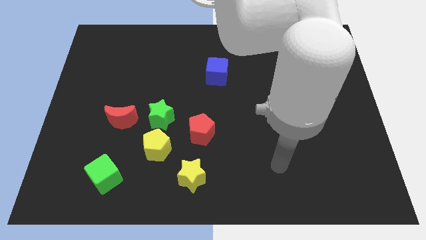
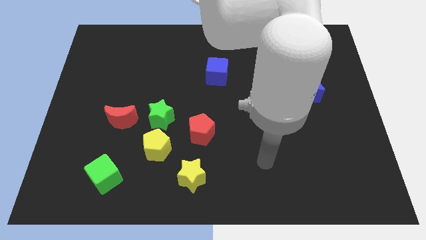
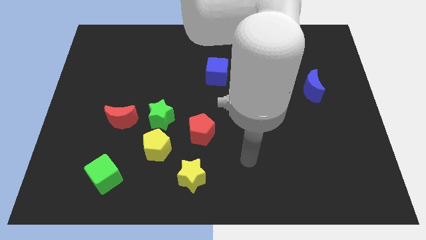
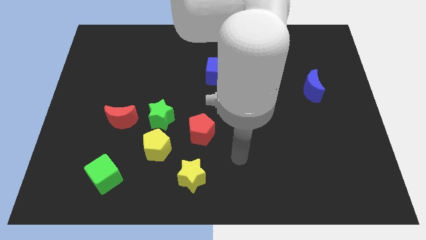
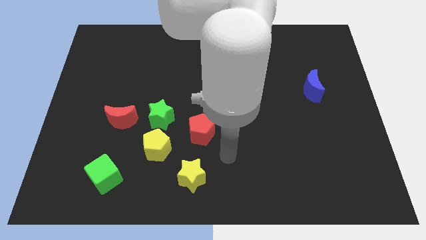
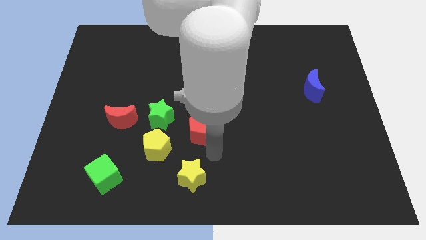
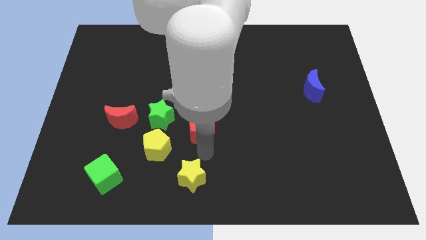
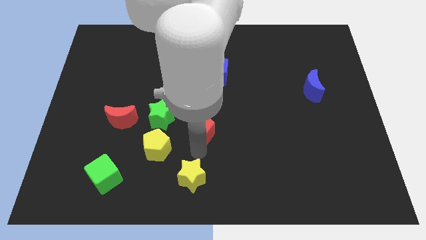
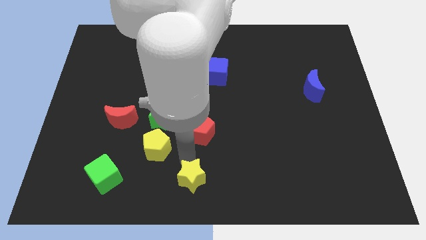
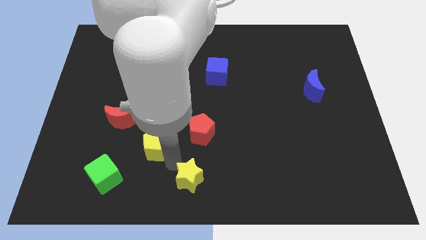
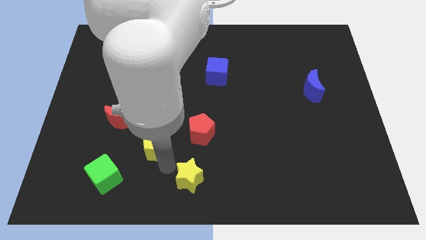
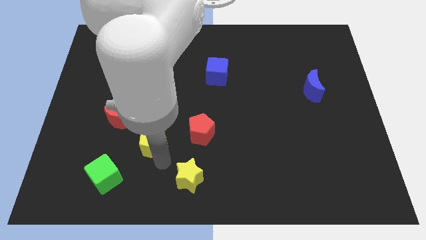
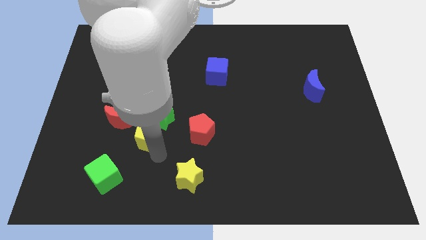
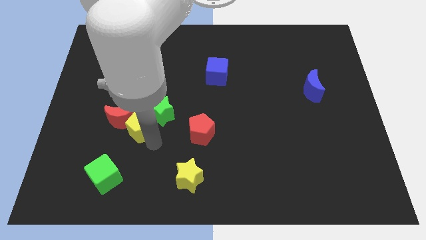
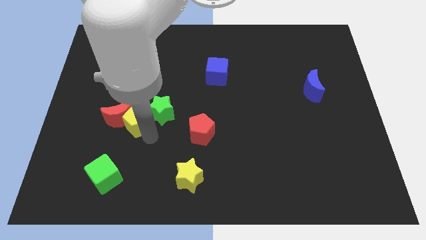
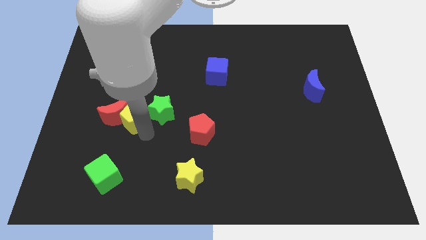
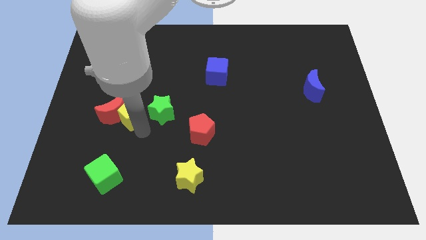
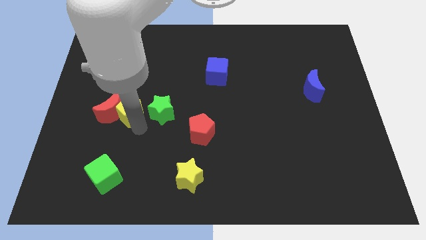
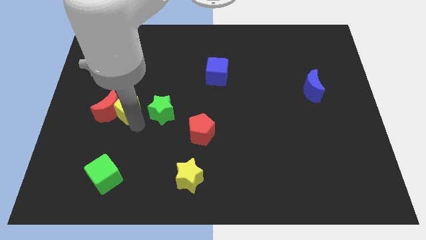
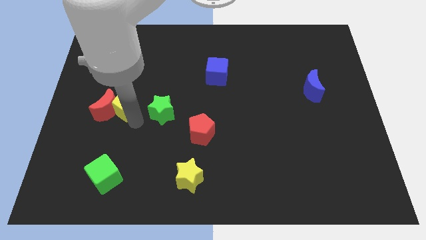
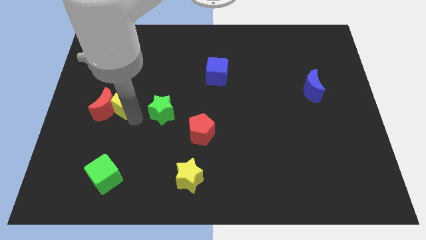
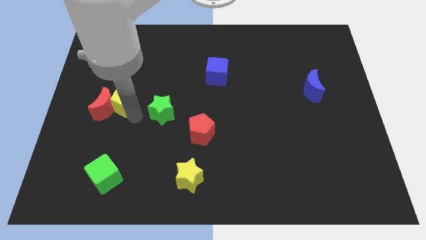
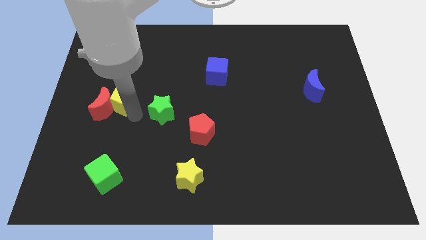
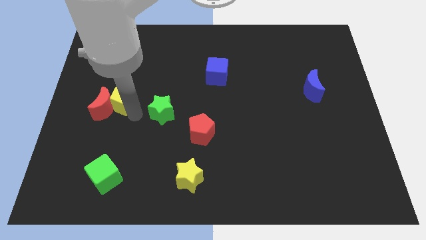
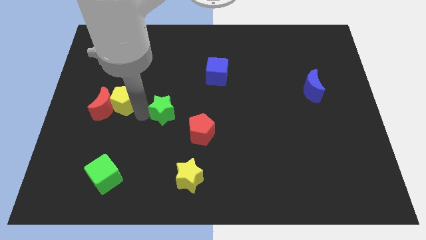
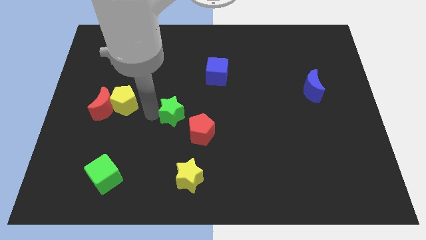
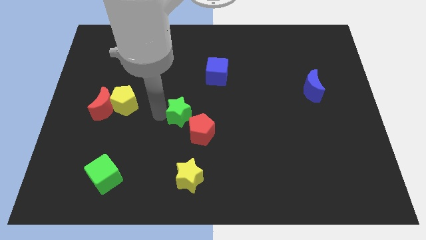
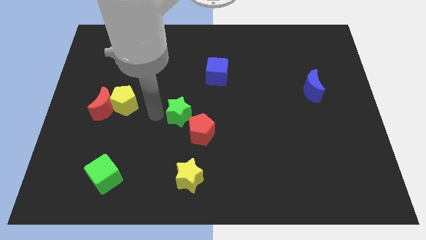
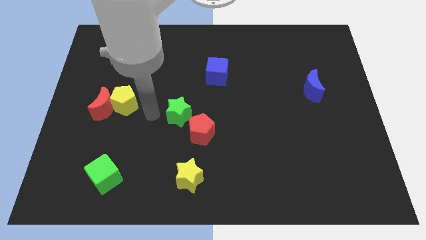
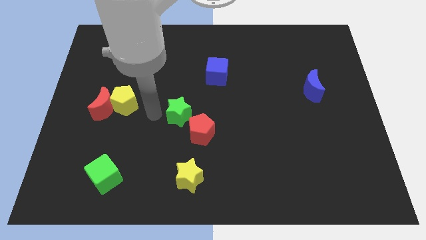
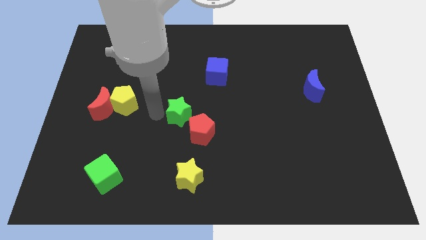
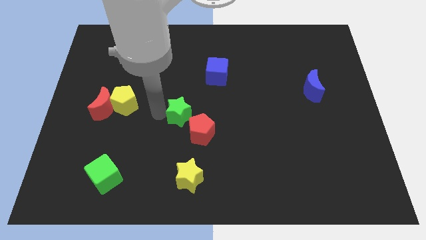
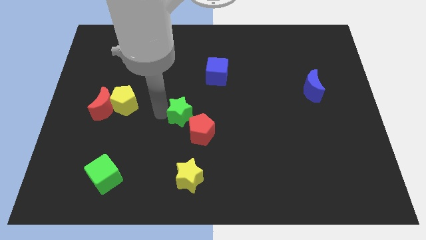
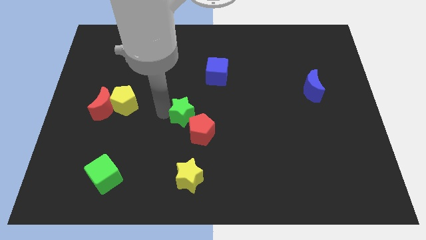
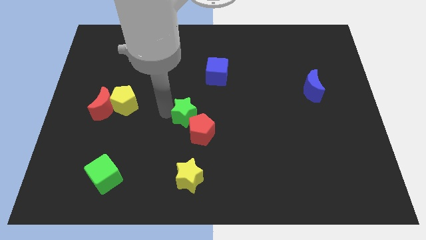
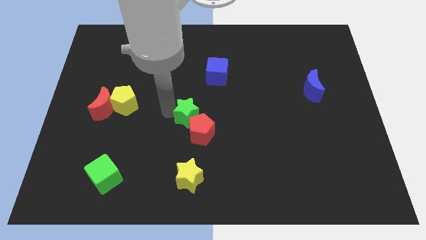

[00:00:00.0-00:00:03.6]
separate the green star from the group of blocks

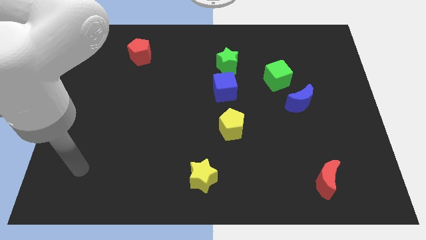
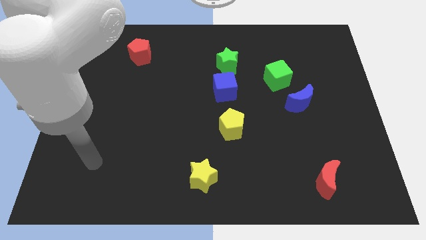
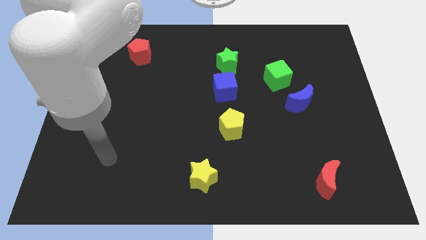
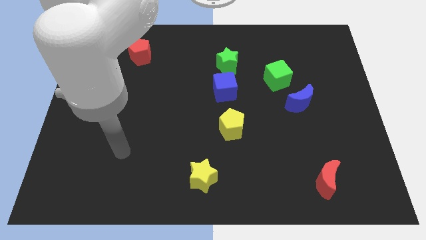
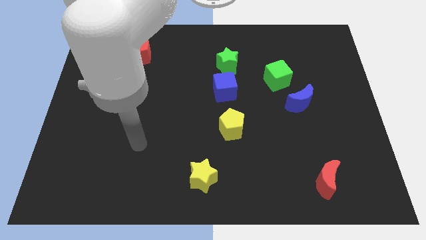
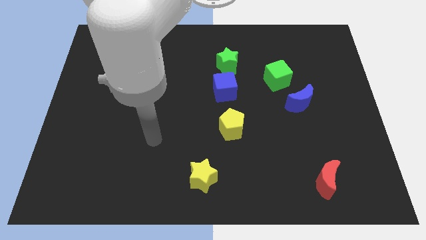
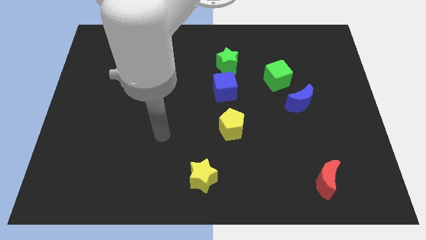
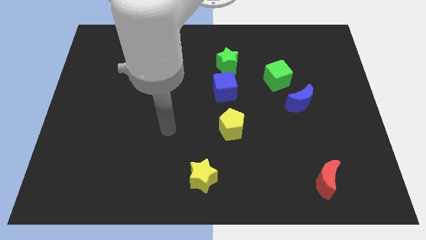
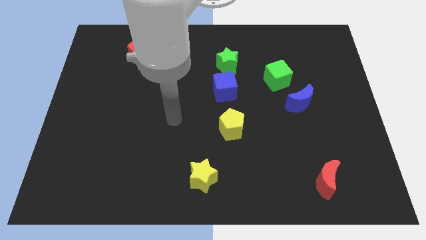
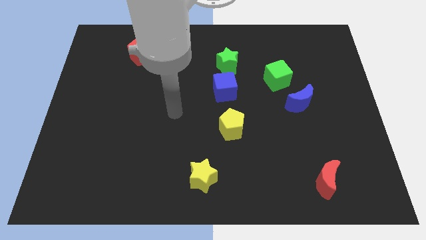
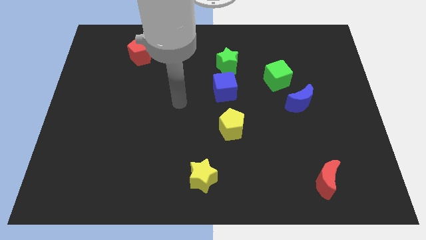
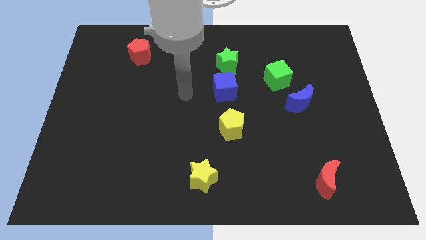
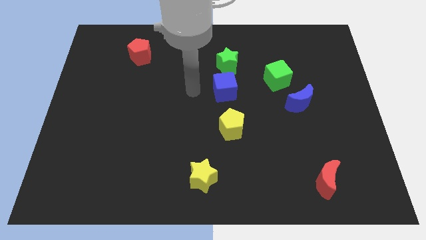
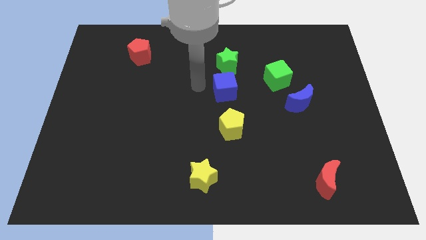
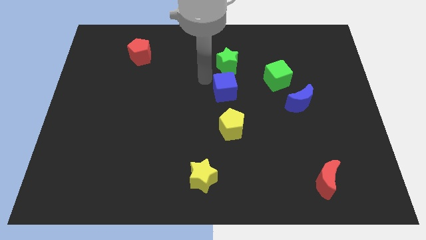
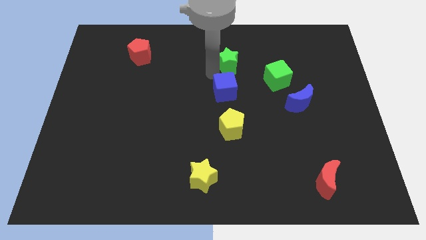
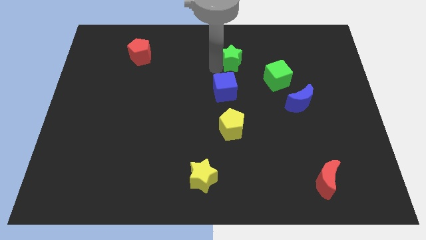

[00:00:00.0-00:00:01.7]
separate the blue cube from the green star

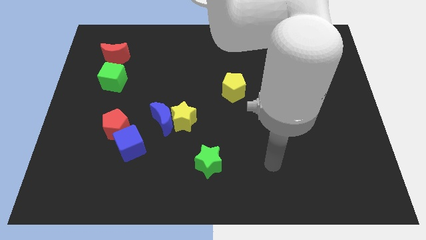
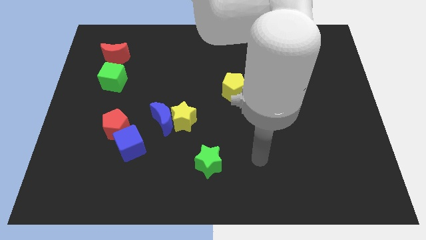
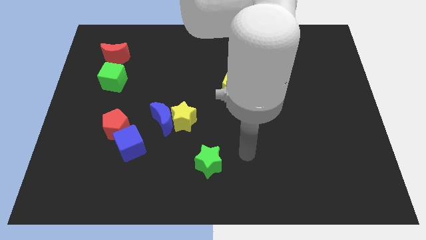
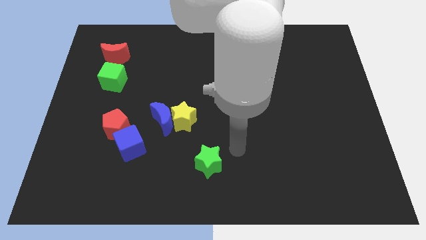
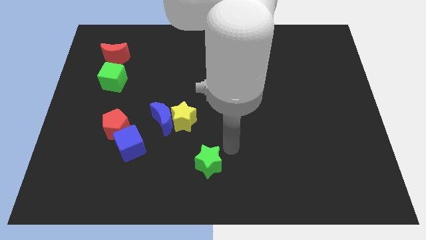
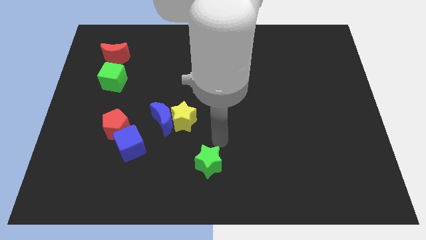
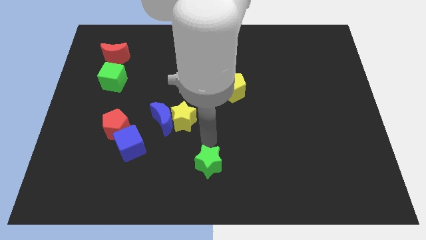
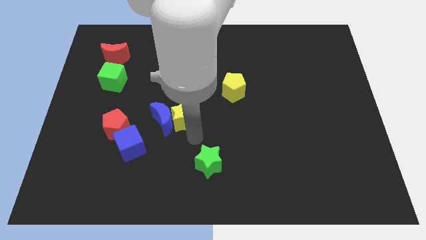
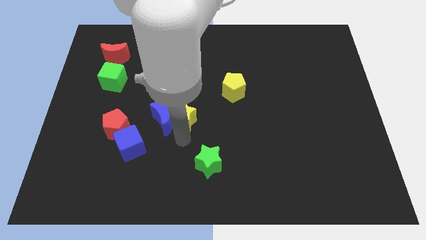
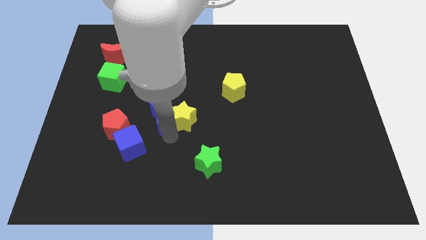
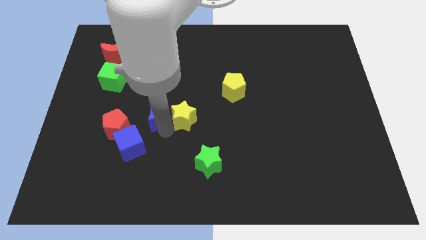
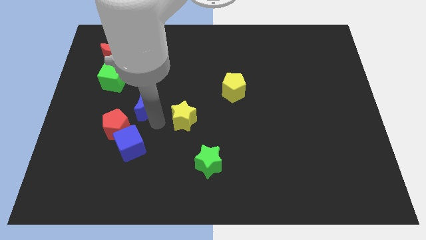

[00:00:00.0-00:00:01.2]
pull the yellow star apart from the blue moon

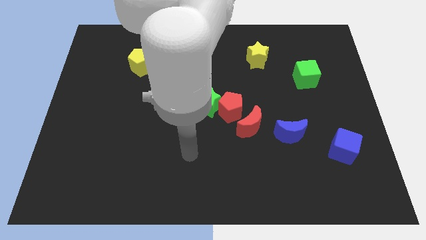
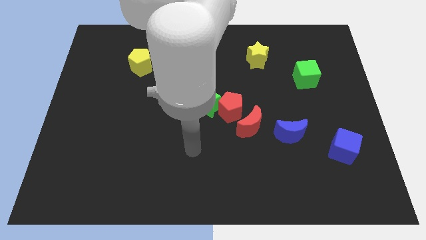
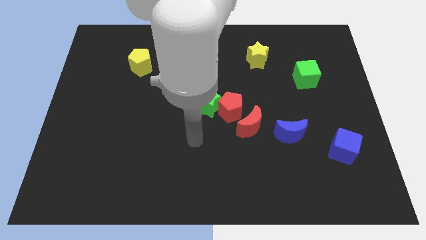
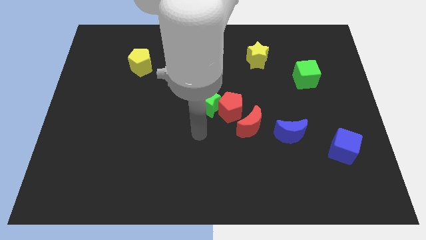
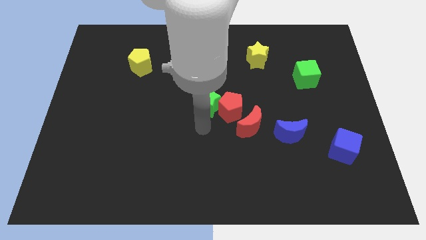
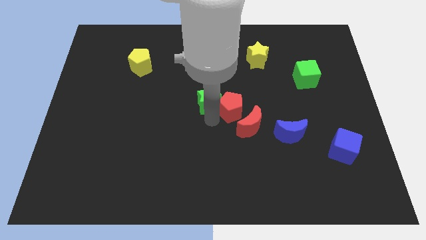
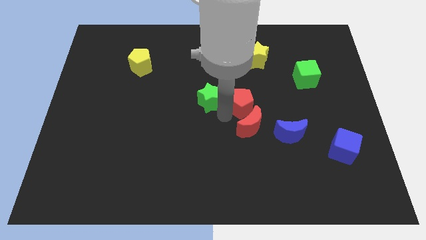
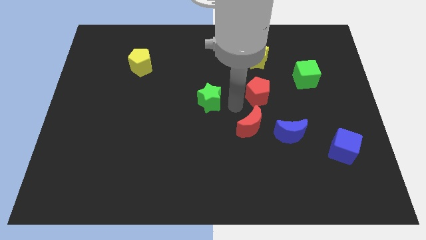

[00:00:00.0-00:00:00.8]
pull the green star apart from the red pentagon

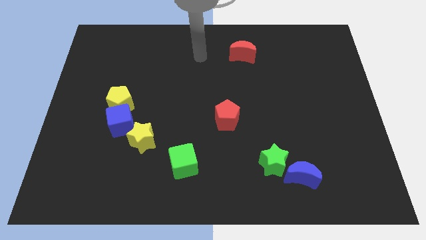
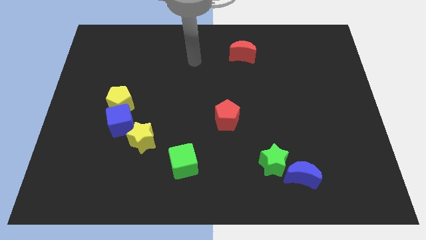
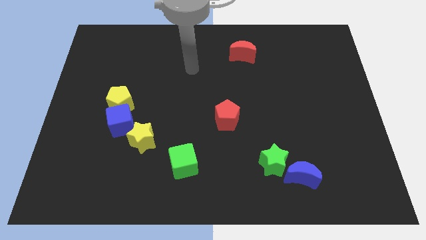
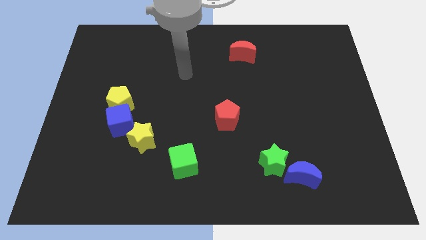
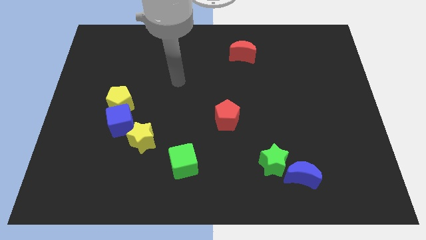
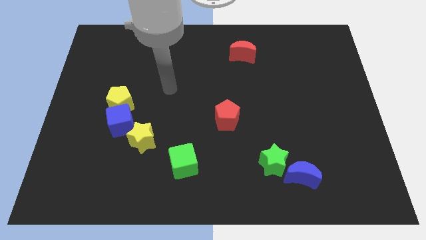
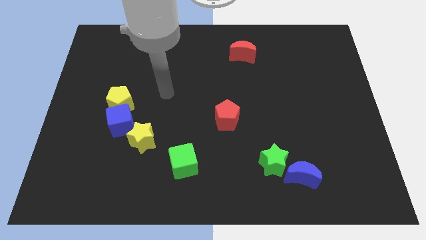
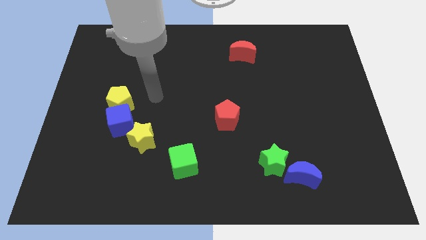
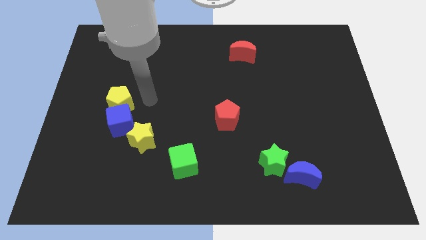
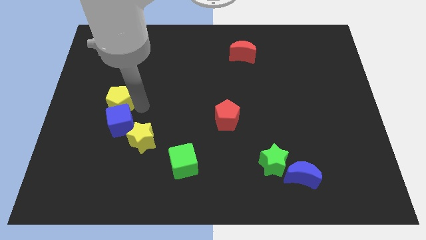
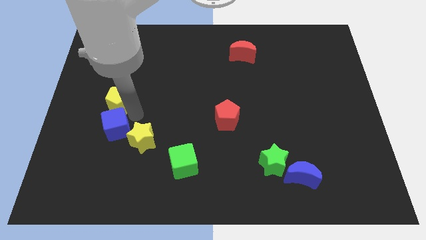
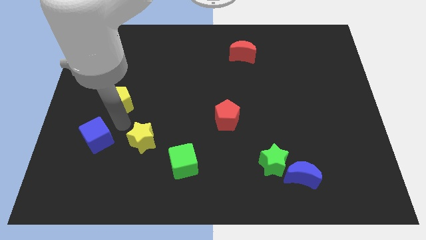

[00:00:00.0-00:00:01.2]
move the yellow pentagon away from the blue cube

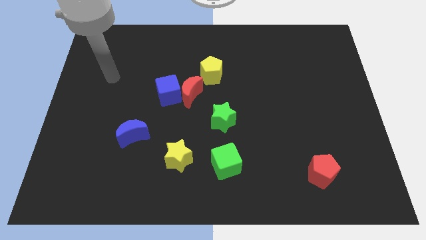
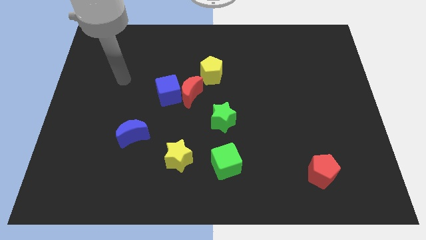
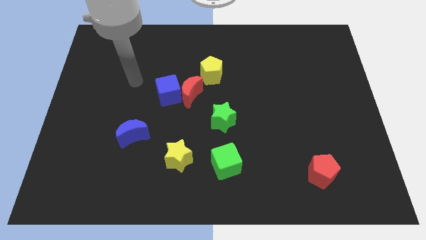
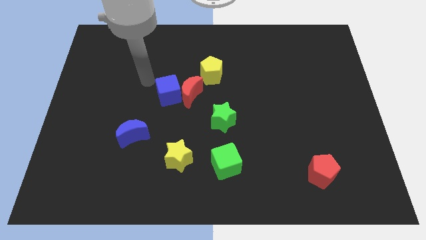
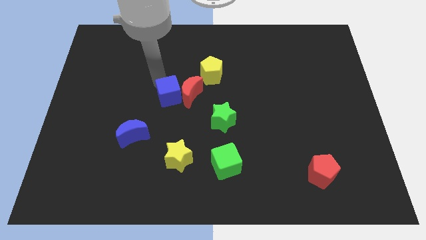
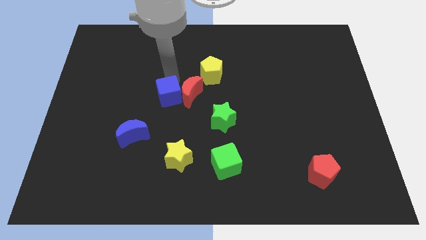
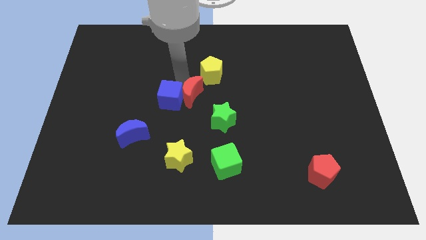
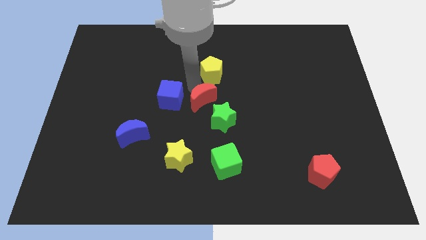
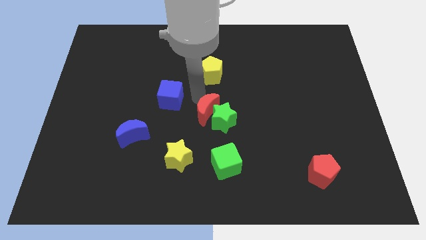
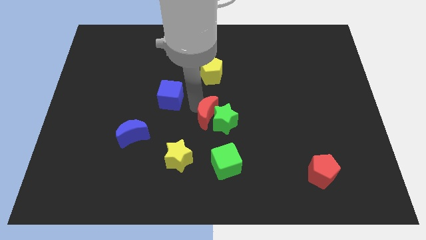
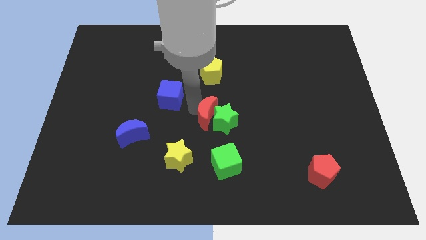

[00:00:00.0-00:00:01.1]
pull the blue cube apart from the red moon
